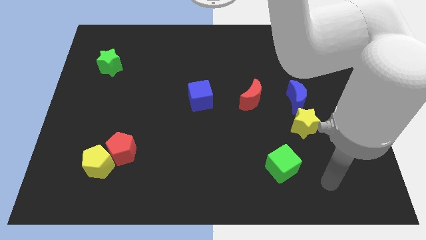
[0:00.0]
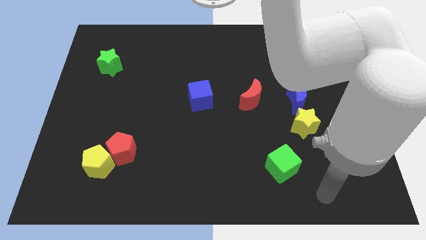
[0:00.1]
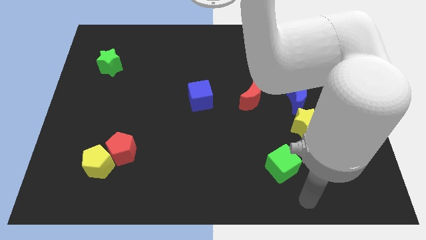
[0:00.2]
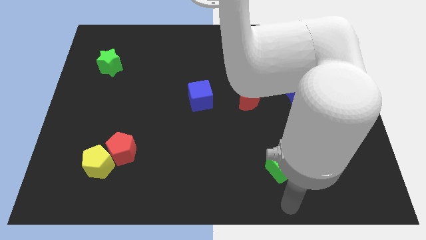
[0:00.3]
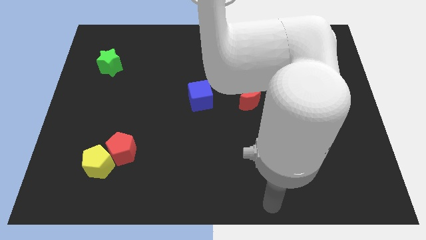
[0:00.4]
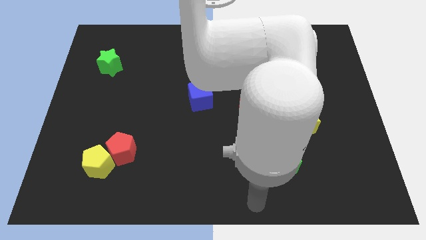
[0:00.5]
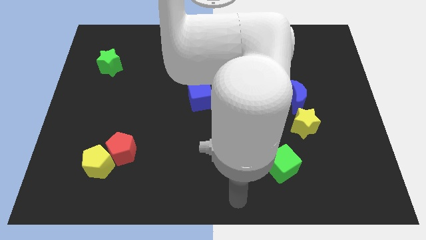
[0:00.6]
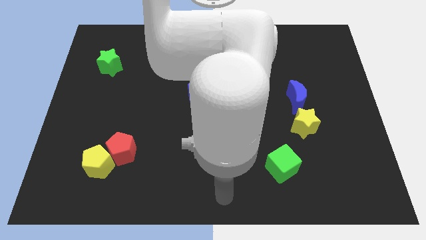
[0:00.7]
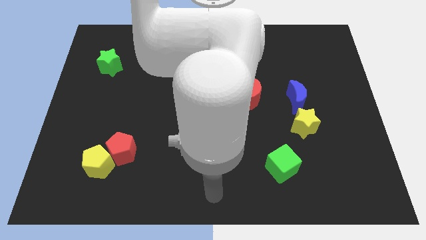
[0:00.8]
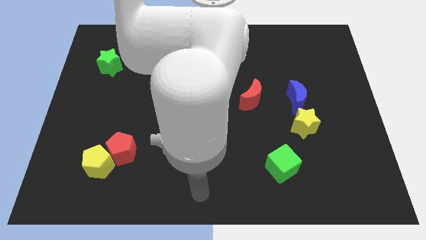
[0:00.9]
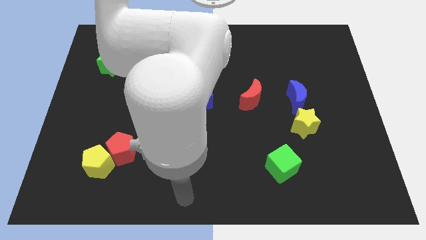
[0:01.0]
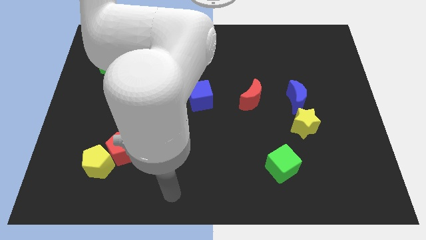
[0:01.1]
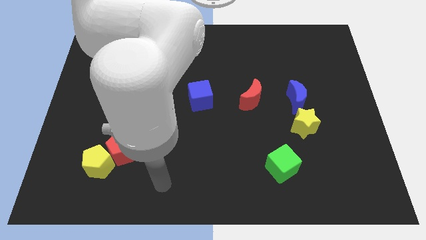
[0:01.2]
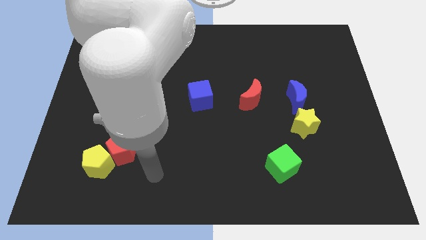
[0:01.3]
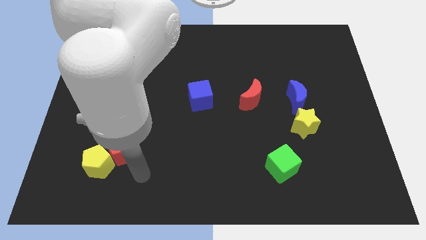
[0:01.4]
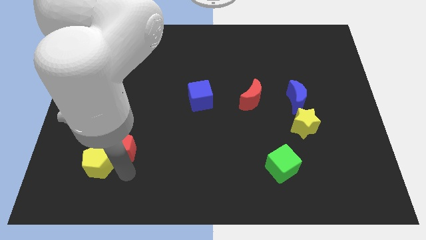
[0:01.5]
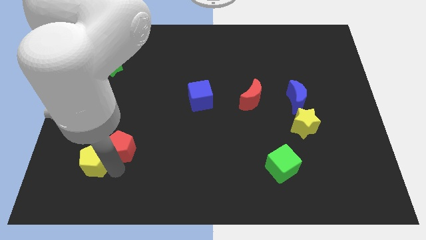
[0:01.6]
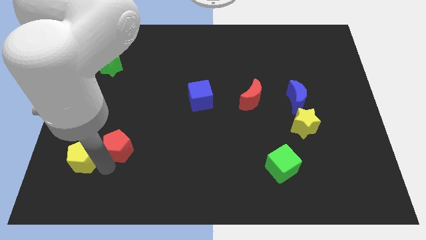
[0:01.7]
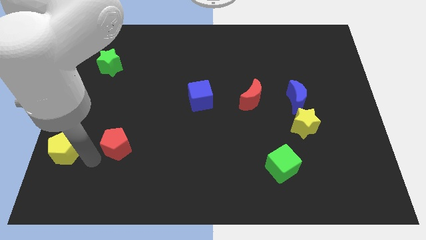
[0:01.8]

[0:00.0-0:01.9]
separate the red pentagon from the yellow pentagon

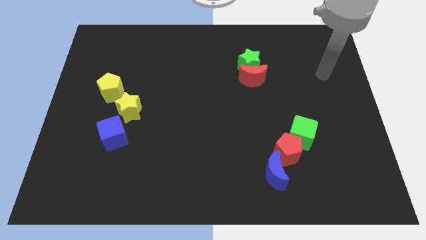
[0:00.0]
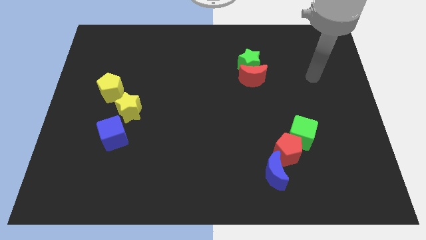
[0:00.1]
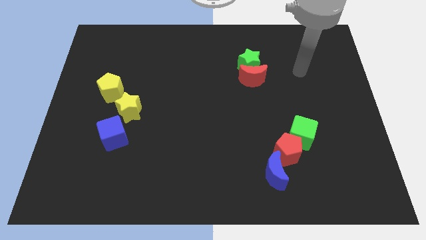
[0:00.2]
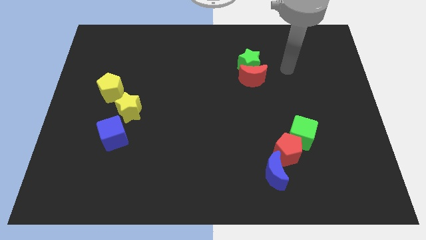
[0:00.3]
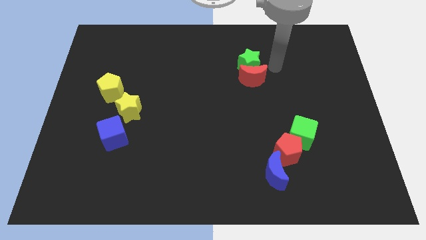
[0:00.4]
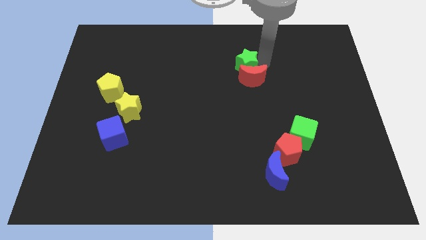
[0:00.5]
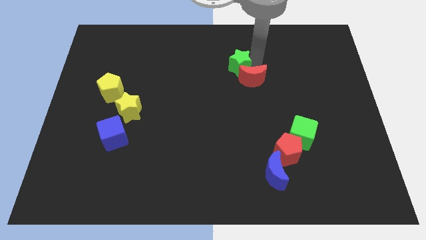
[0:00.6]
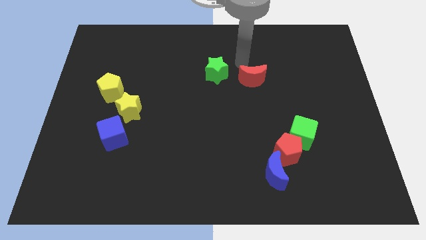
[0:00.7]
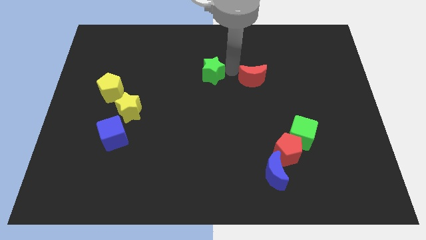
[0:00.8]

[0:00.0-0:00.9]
pull the red moon apart from the green star

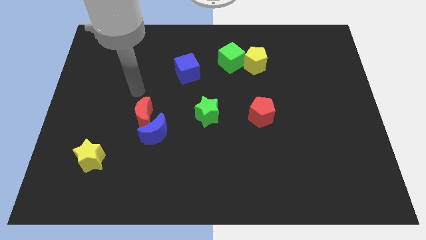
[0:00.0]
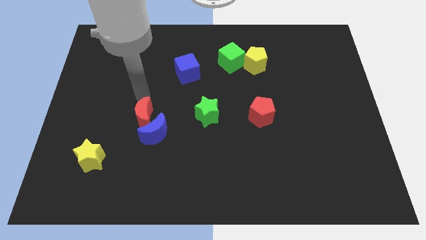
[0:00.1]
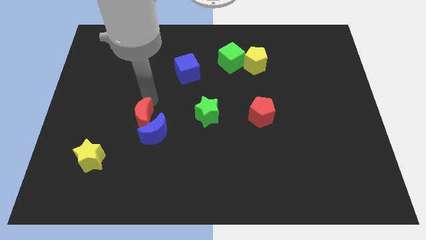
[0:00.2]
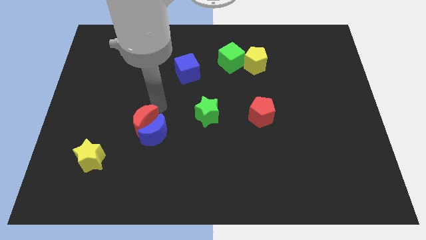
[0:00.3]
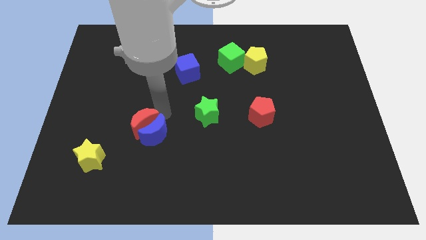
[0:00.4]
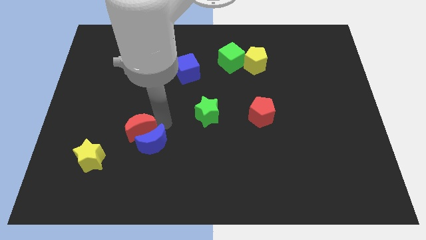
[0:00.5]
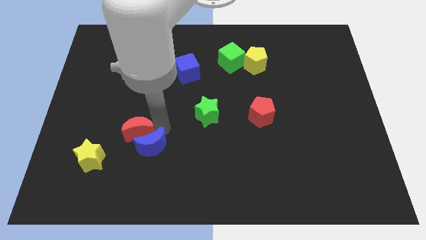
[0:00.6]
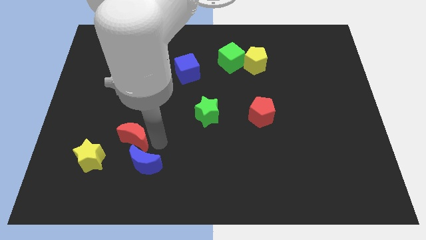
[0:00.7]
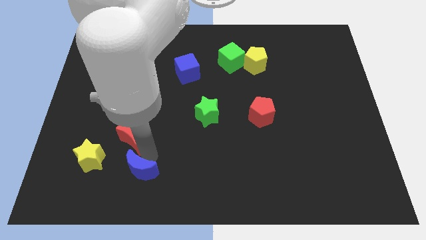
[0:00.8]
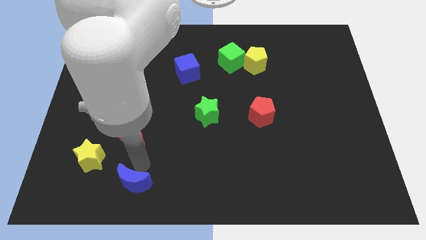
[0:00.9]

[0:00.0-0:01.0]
move the red moon away from the blue moon

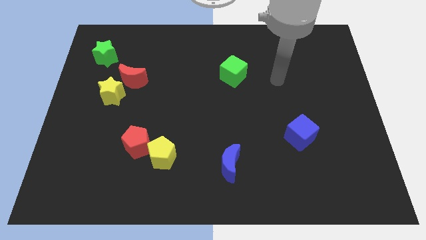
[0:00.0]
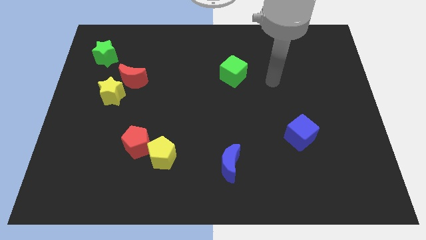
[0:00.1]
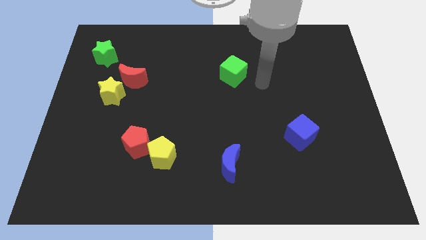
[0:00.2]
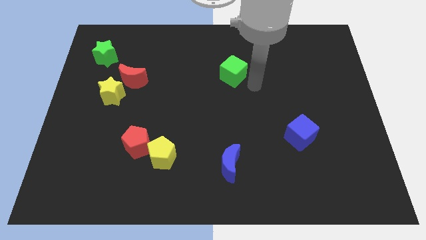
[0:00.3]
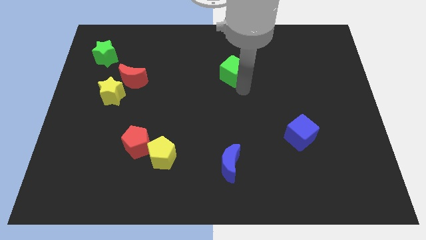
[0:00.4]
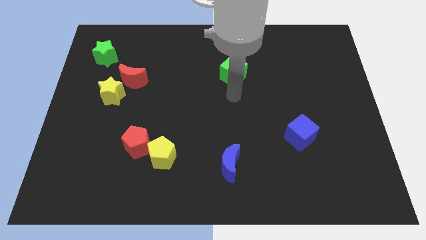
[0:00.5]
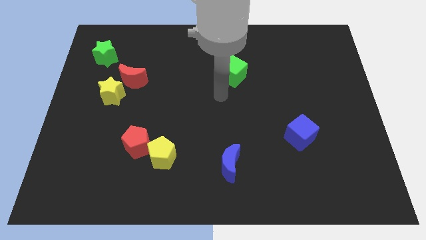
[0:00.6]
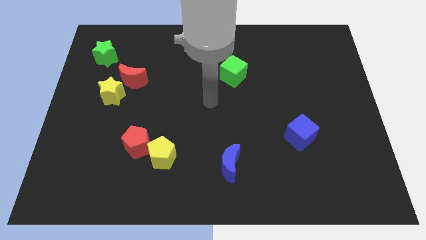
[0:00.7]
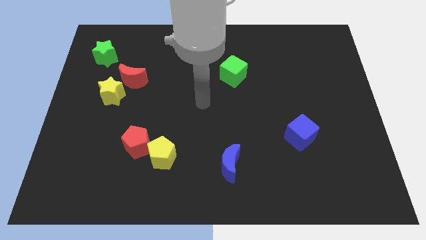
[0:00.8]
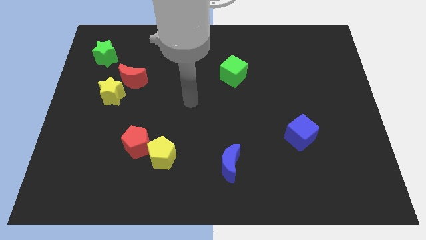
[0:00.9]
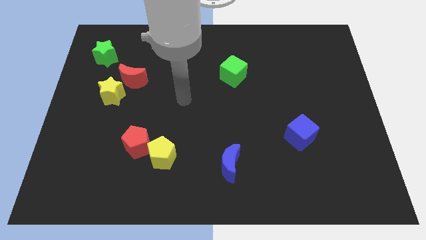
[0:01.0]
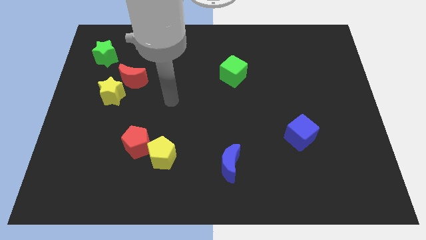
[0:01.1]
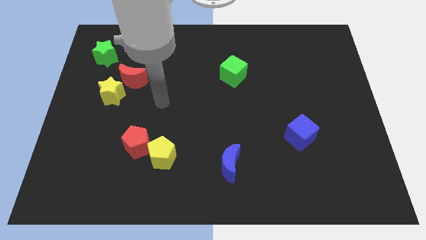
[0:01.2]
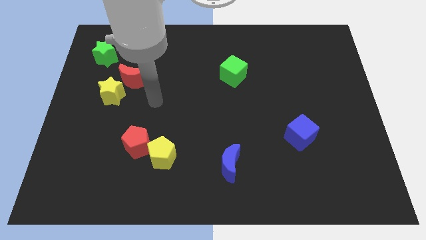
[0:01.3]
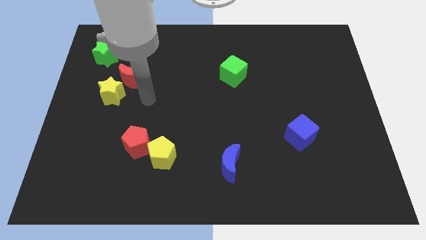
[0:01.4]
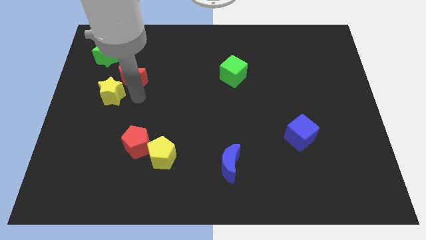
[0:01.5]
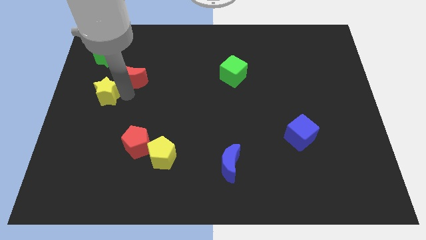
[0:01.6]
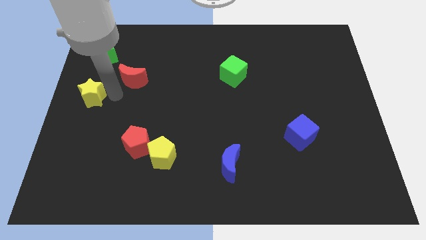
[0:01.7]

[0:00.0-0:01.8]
move the red moon away from the yellow star

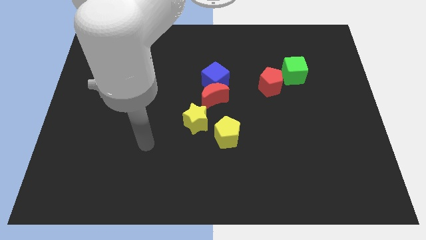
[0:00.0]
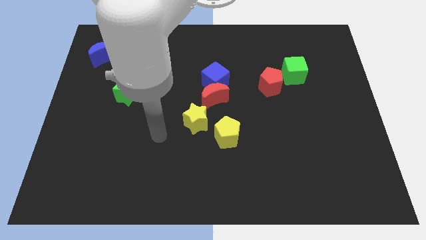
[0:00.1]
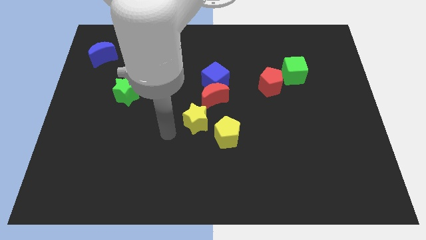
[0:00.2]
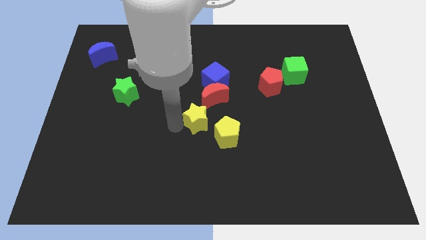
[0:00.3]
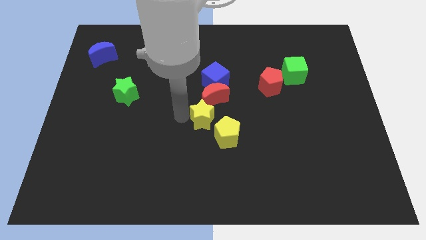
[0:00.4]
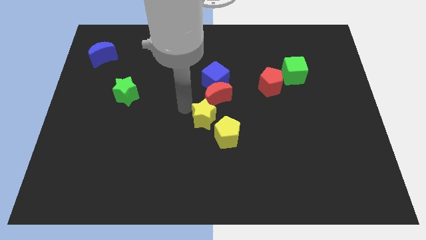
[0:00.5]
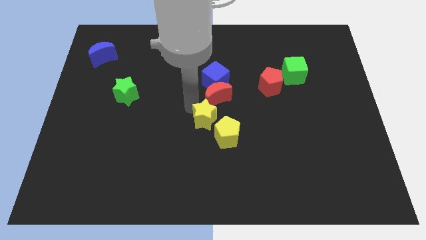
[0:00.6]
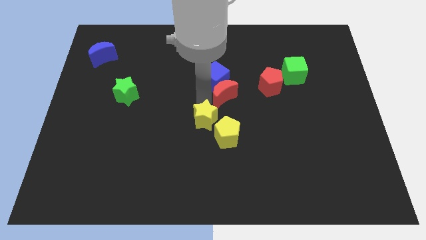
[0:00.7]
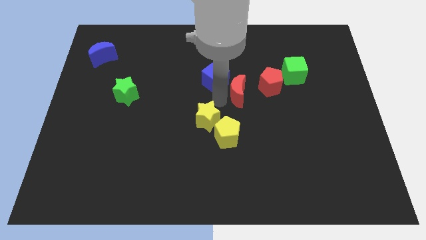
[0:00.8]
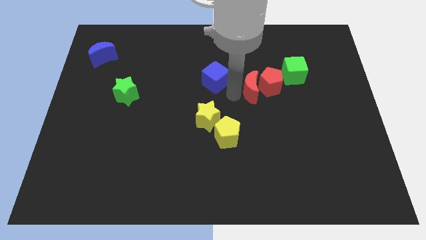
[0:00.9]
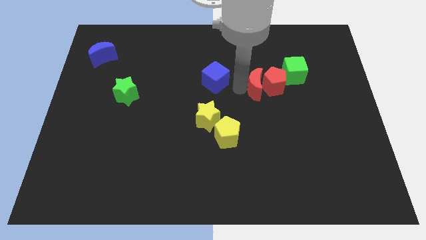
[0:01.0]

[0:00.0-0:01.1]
separate the blue cube from the red moon

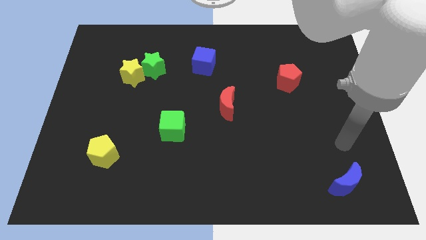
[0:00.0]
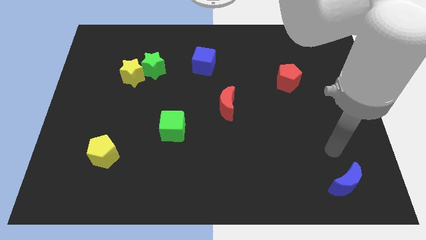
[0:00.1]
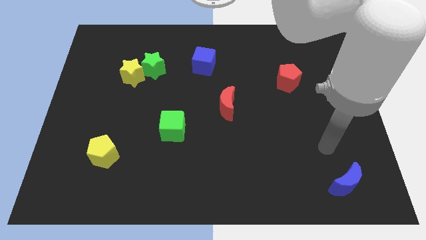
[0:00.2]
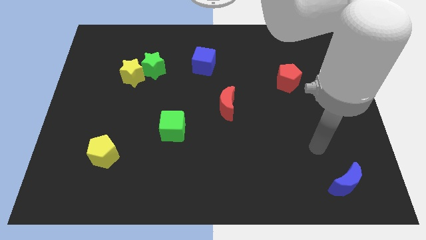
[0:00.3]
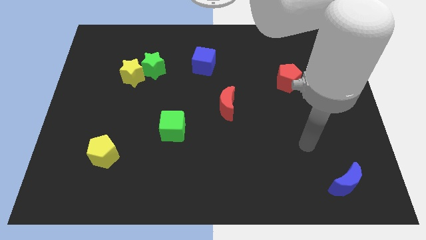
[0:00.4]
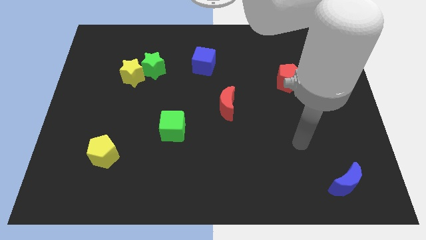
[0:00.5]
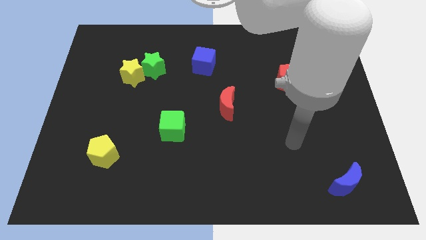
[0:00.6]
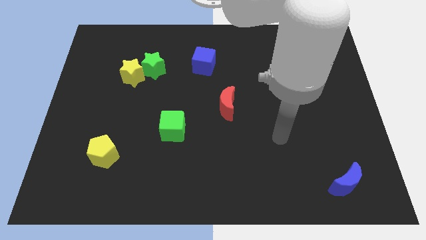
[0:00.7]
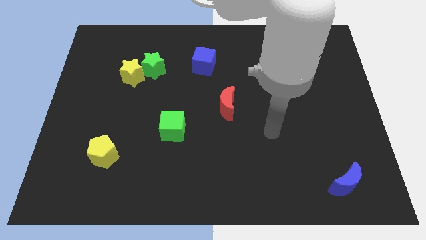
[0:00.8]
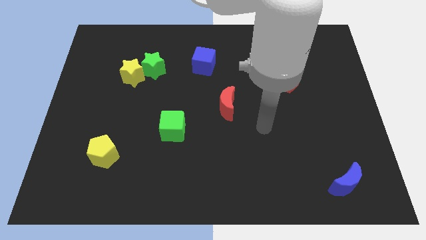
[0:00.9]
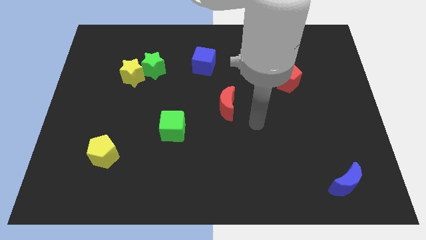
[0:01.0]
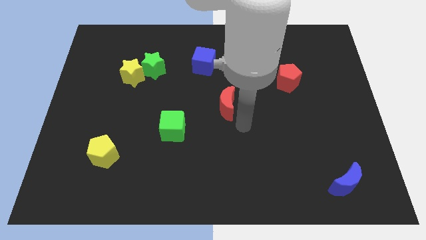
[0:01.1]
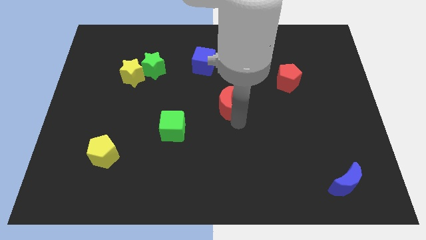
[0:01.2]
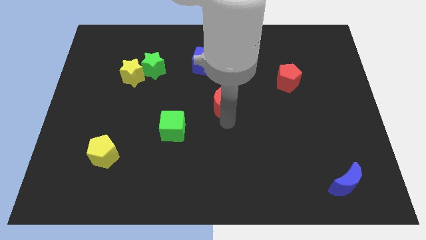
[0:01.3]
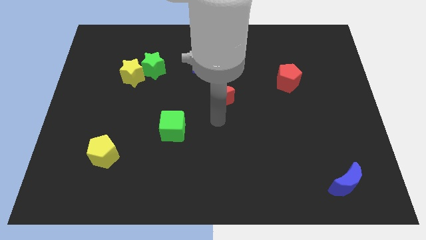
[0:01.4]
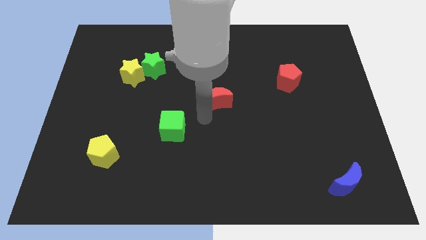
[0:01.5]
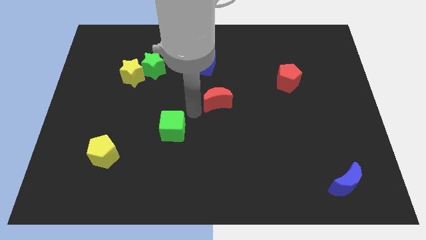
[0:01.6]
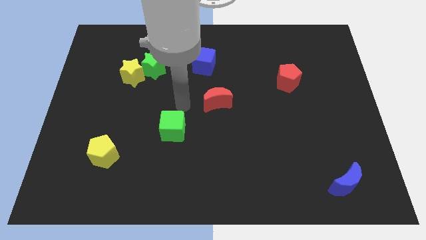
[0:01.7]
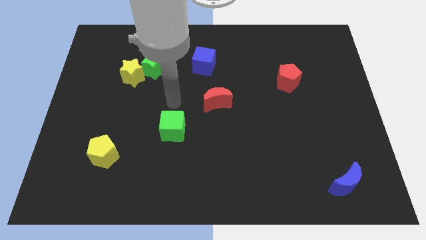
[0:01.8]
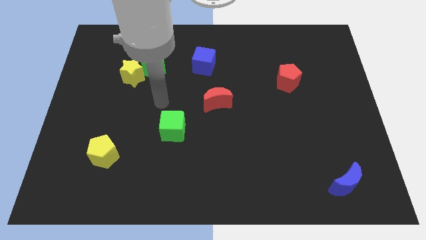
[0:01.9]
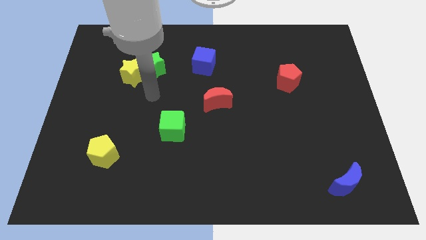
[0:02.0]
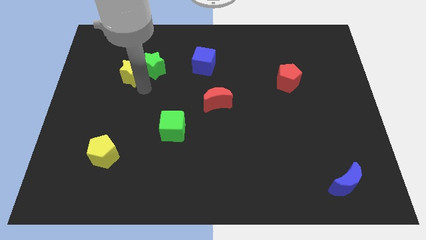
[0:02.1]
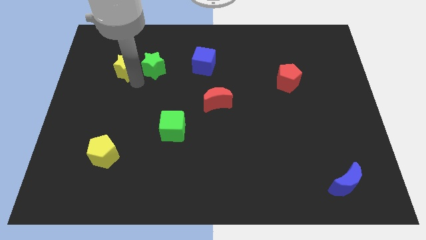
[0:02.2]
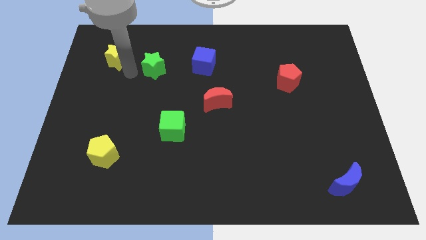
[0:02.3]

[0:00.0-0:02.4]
move the green star away from the yellow star

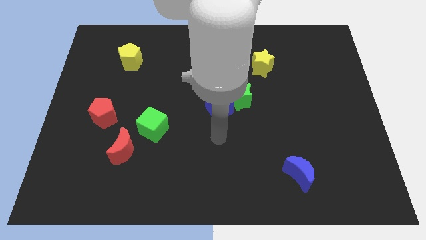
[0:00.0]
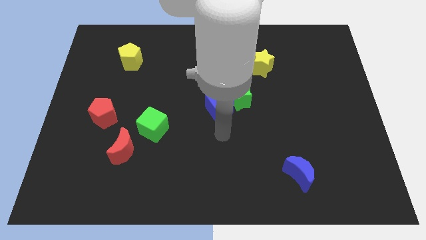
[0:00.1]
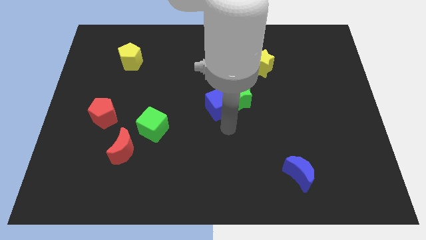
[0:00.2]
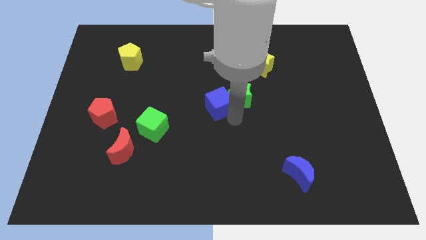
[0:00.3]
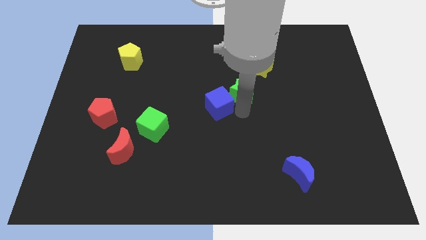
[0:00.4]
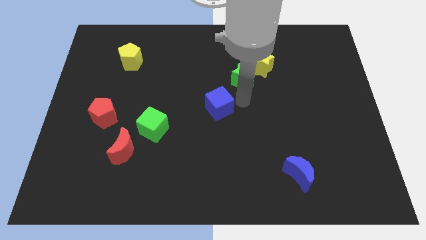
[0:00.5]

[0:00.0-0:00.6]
move the blue cube away from the green star
